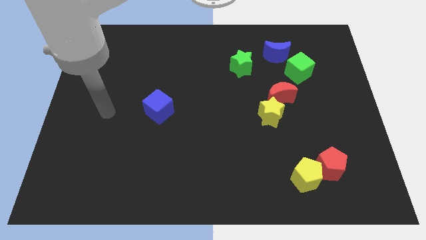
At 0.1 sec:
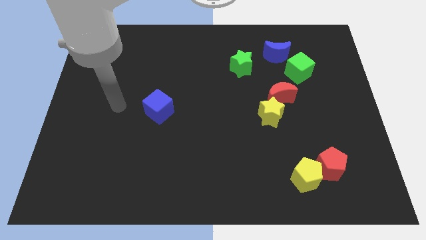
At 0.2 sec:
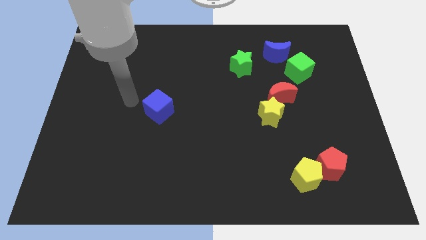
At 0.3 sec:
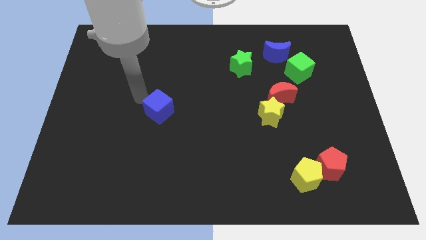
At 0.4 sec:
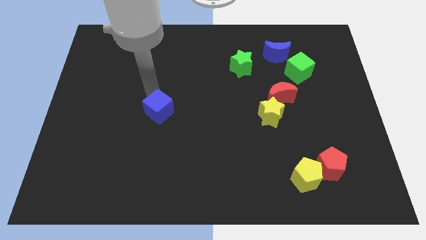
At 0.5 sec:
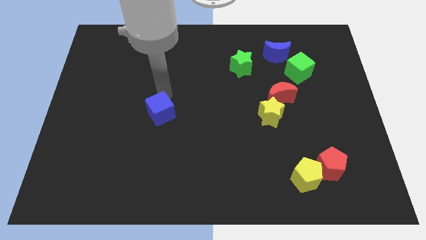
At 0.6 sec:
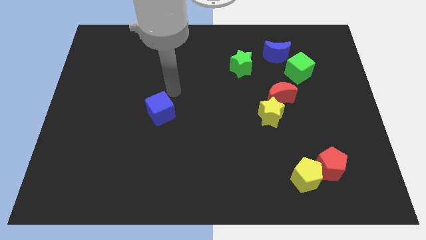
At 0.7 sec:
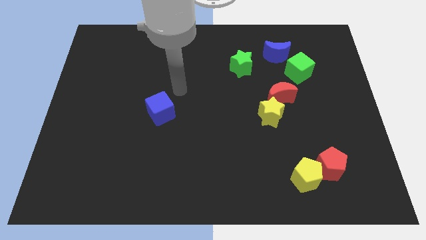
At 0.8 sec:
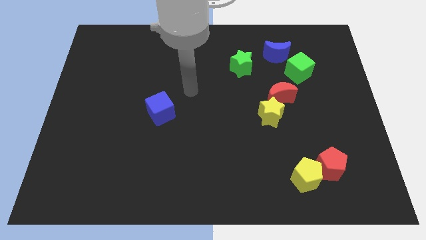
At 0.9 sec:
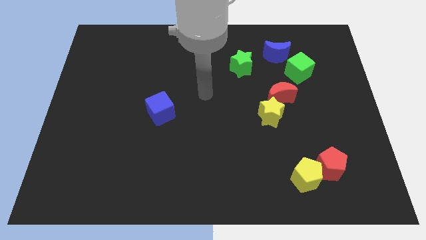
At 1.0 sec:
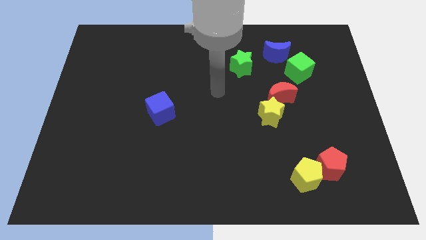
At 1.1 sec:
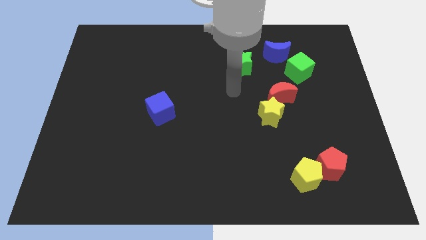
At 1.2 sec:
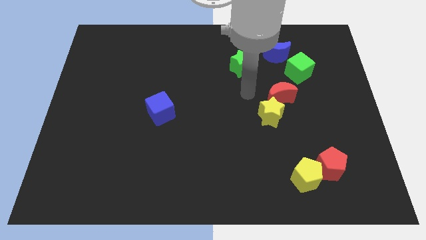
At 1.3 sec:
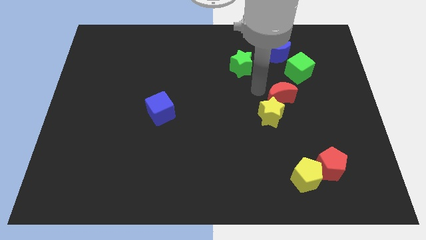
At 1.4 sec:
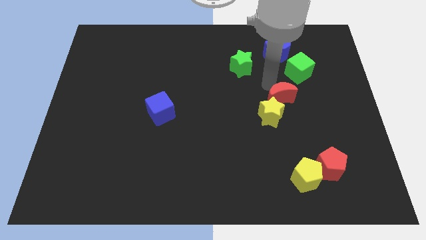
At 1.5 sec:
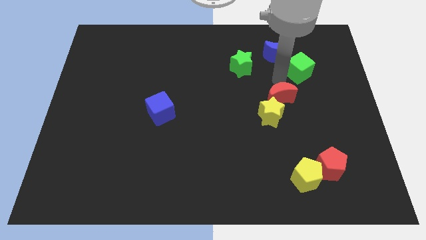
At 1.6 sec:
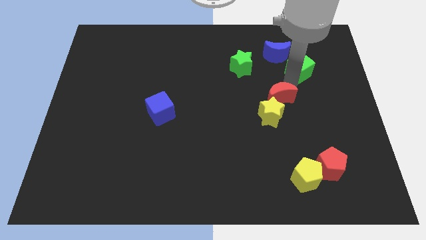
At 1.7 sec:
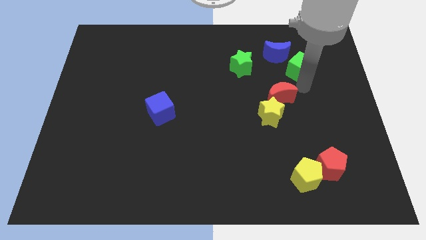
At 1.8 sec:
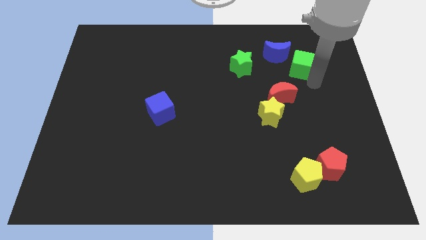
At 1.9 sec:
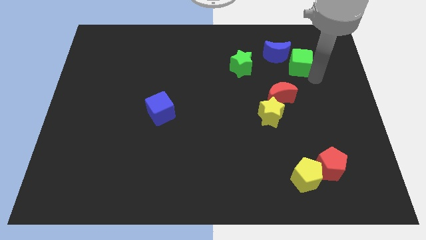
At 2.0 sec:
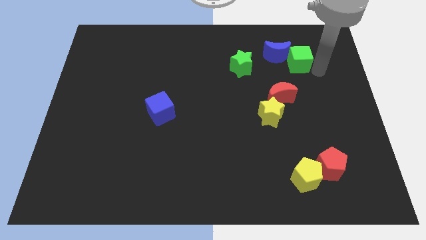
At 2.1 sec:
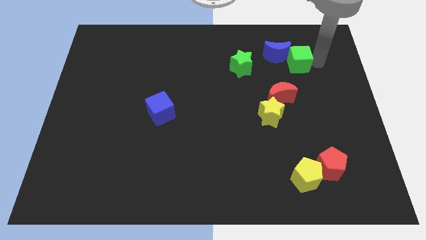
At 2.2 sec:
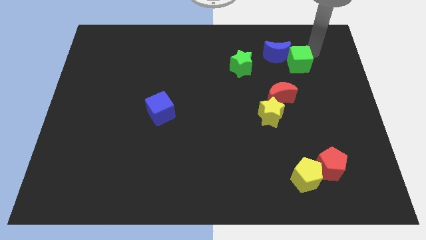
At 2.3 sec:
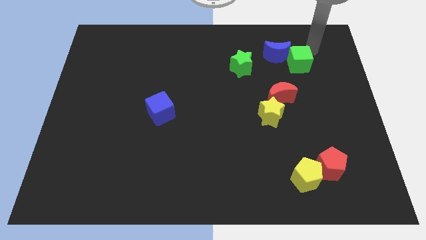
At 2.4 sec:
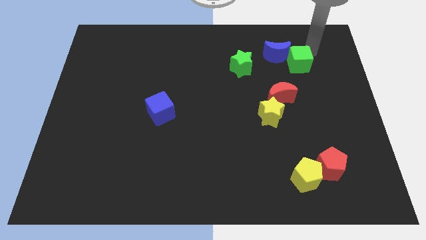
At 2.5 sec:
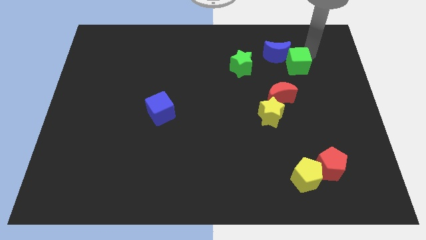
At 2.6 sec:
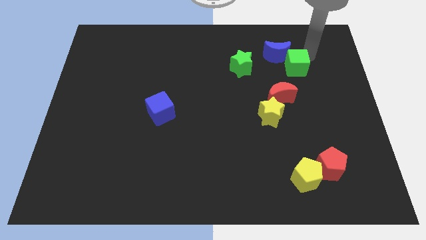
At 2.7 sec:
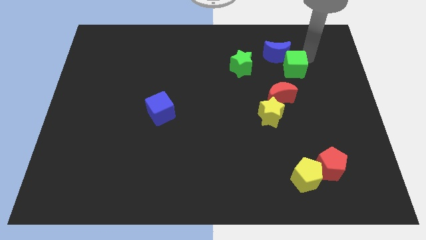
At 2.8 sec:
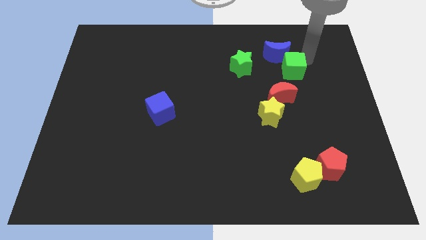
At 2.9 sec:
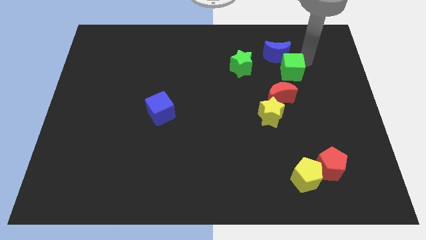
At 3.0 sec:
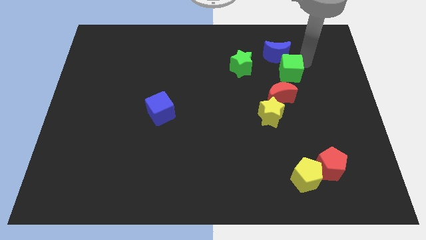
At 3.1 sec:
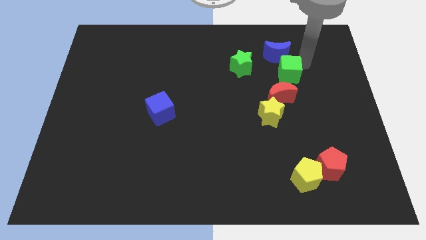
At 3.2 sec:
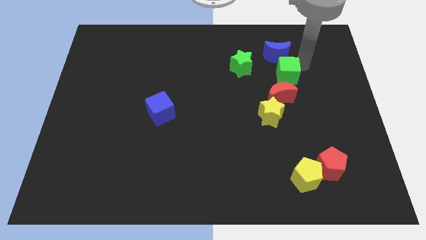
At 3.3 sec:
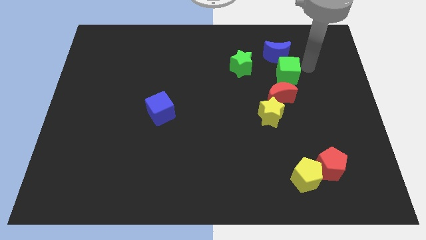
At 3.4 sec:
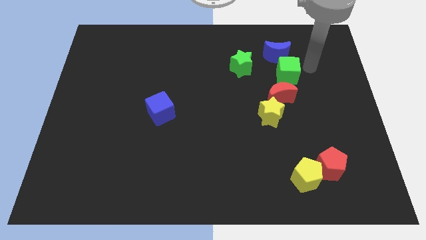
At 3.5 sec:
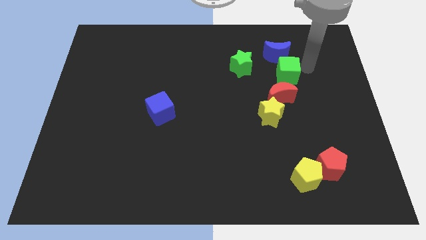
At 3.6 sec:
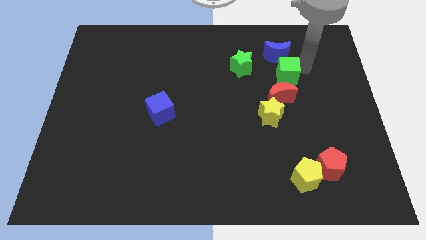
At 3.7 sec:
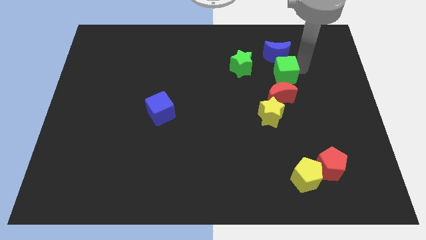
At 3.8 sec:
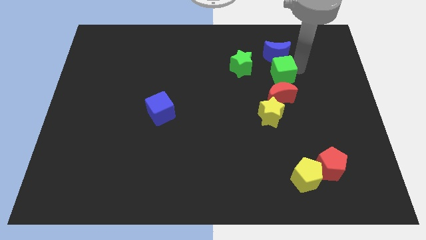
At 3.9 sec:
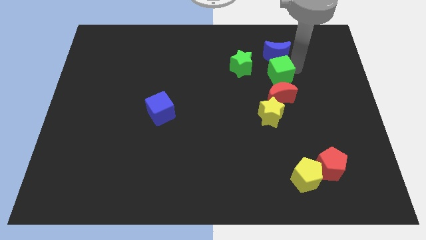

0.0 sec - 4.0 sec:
move the green cube to the bottom right side of the green star

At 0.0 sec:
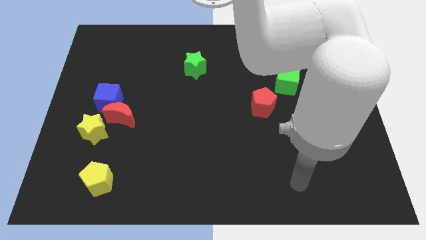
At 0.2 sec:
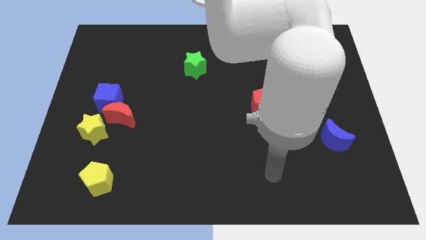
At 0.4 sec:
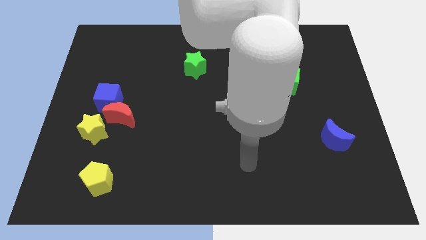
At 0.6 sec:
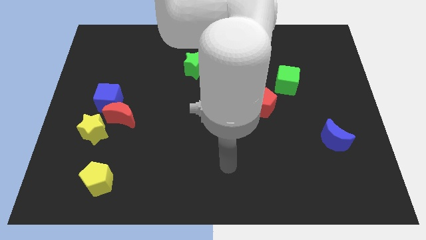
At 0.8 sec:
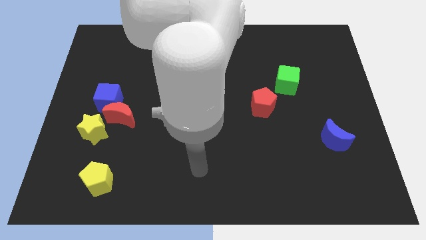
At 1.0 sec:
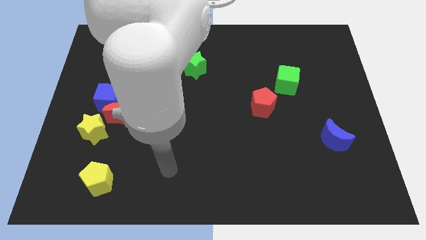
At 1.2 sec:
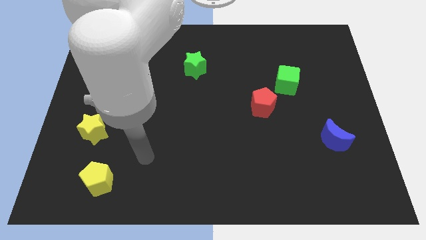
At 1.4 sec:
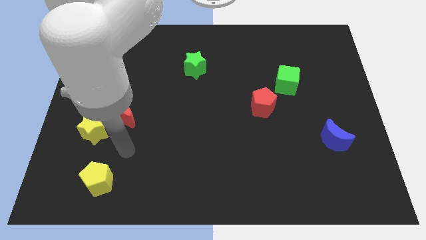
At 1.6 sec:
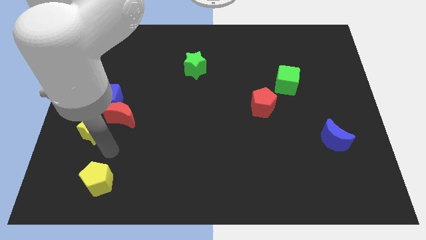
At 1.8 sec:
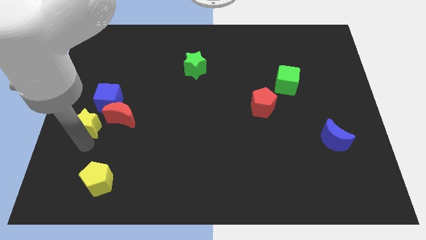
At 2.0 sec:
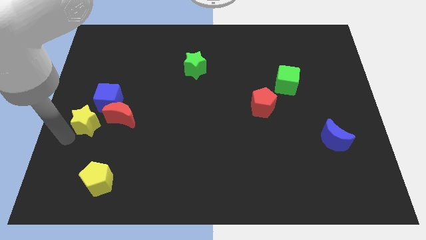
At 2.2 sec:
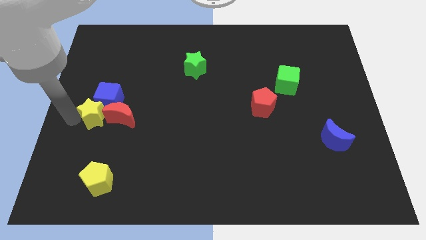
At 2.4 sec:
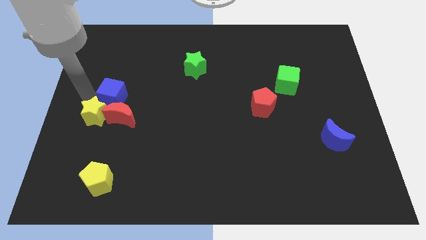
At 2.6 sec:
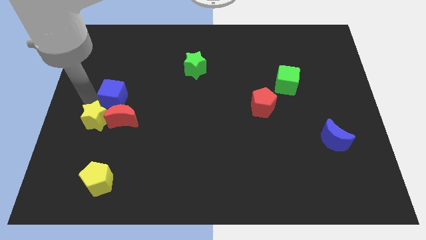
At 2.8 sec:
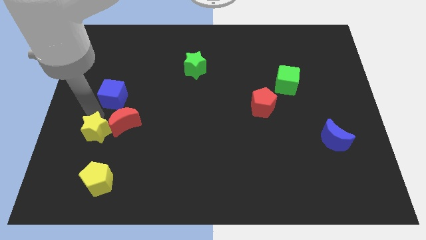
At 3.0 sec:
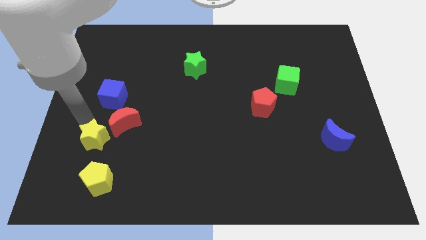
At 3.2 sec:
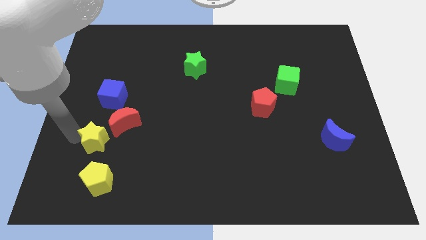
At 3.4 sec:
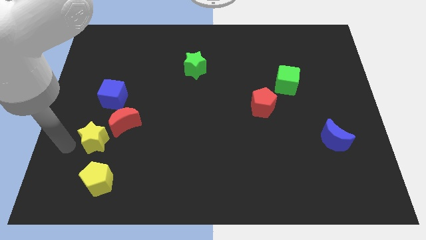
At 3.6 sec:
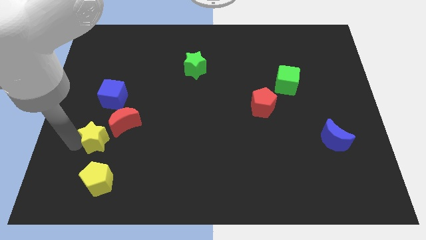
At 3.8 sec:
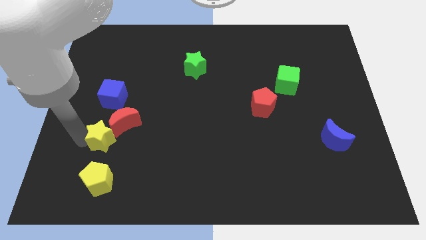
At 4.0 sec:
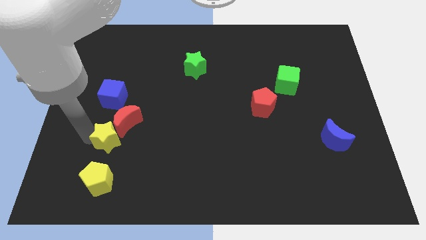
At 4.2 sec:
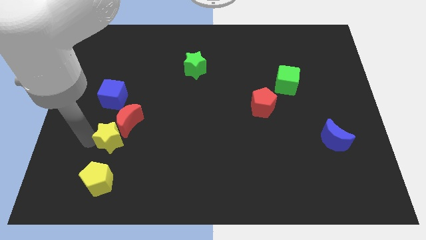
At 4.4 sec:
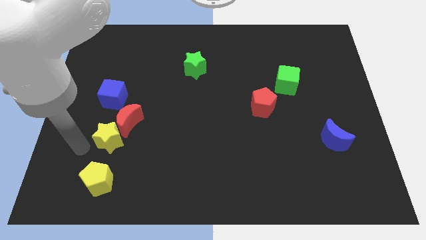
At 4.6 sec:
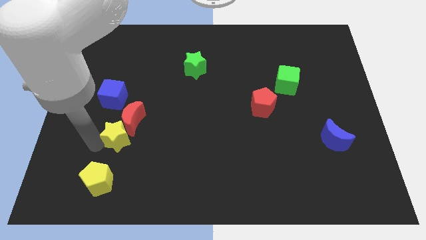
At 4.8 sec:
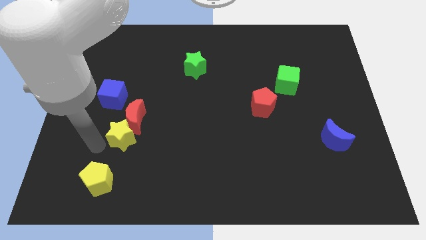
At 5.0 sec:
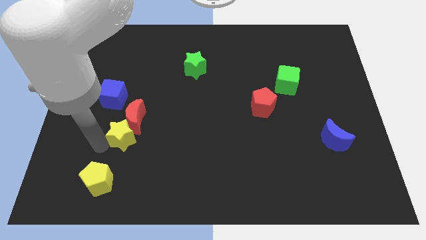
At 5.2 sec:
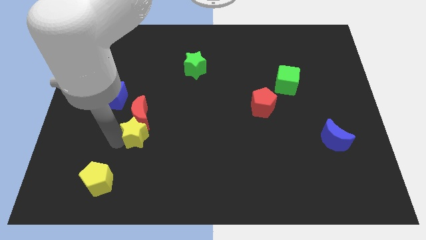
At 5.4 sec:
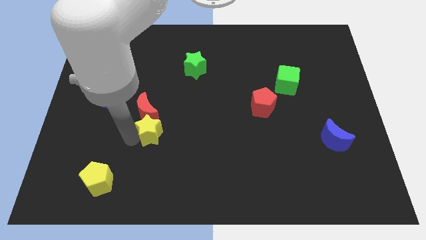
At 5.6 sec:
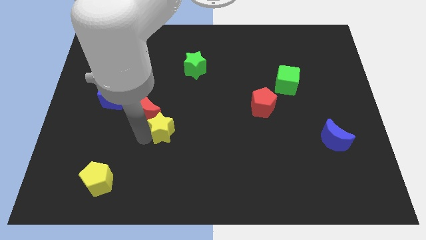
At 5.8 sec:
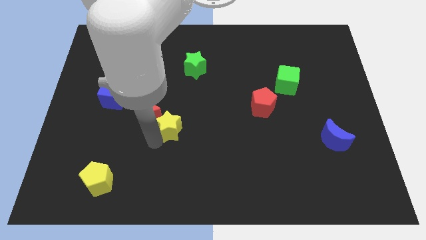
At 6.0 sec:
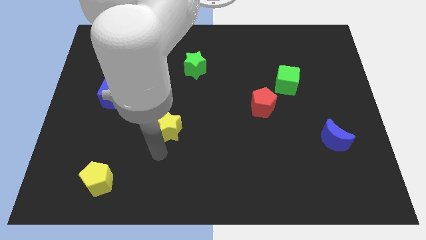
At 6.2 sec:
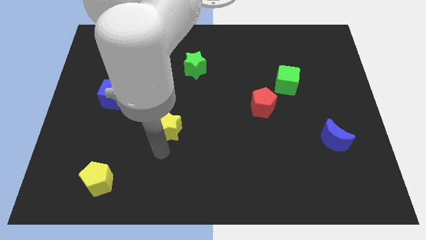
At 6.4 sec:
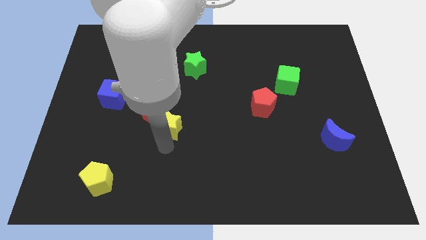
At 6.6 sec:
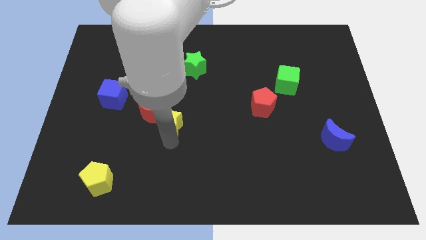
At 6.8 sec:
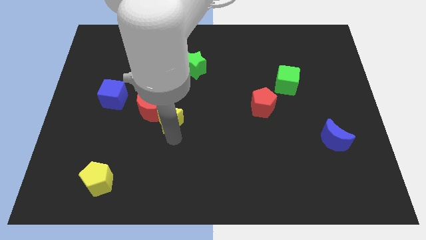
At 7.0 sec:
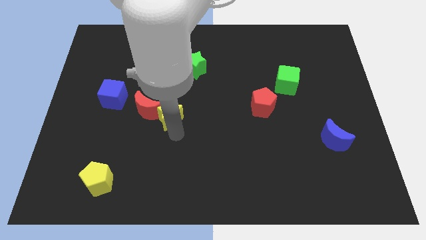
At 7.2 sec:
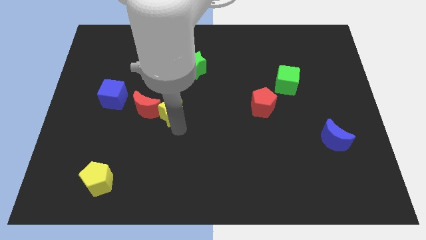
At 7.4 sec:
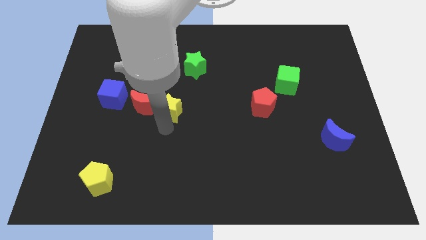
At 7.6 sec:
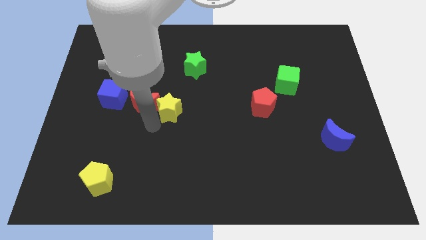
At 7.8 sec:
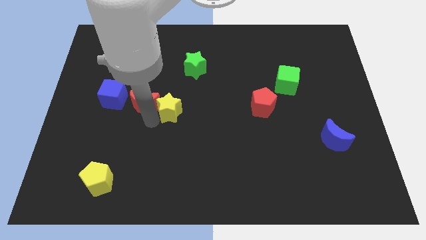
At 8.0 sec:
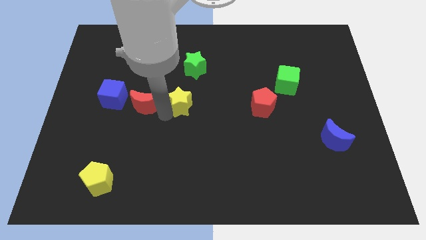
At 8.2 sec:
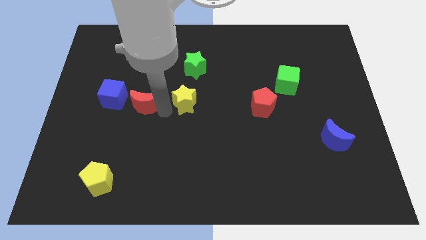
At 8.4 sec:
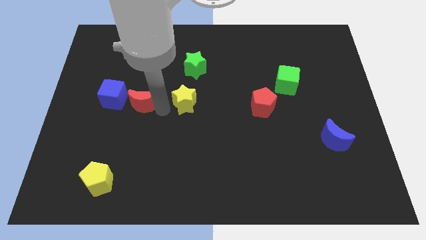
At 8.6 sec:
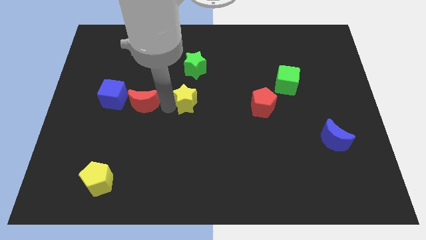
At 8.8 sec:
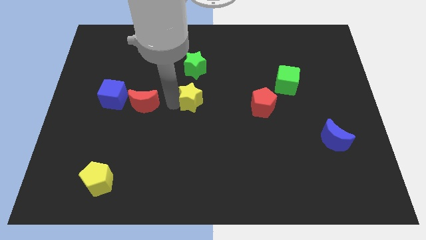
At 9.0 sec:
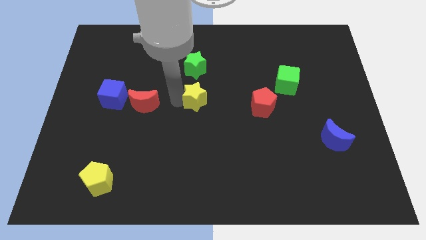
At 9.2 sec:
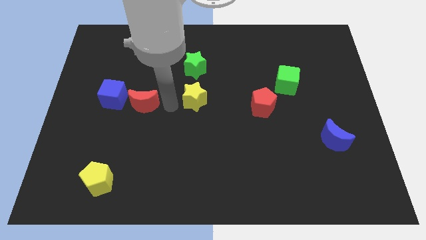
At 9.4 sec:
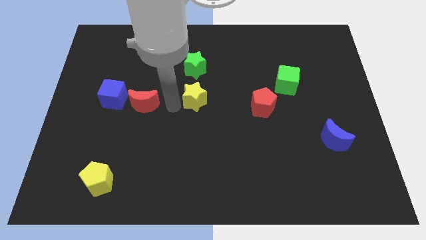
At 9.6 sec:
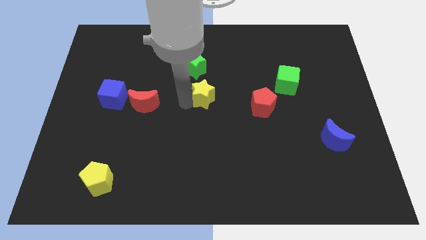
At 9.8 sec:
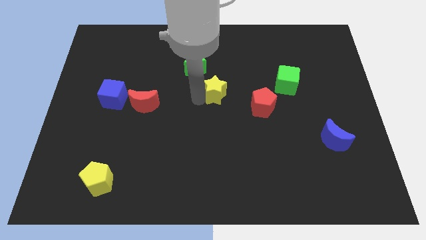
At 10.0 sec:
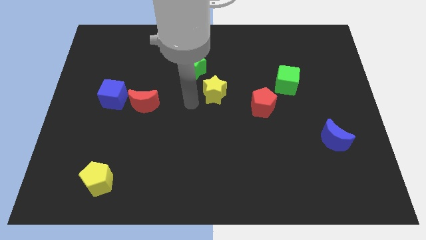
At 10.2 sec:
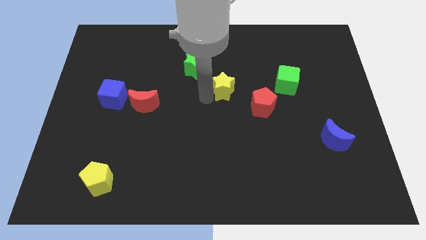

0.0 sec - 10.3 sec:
put the yellow star to the left side of the green cube
